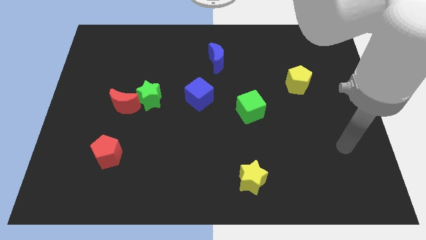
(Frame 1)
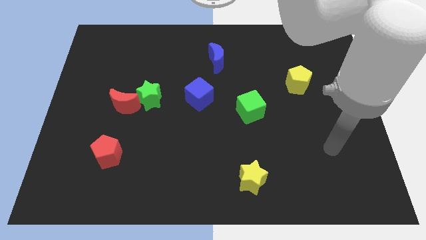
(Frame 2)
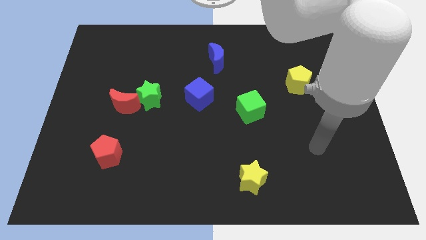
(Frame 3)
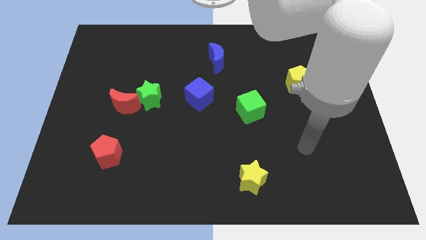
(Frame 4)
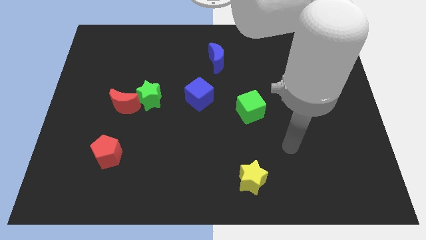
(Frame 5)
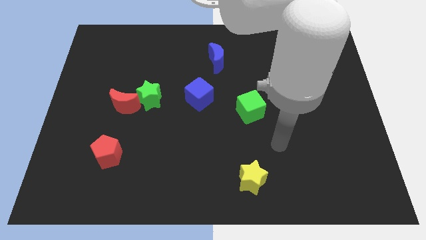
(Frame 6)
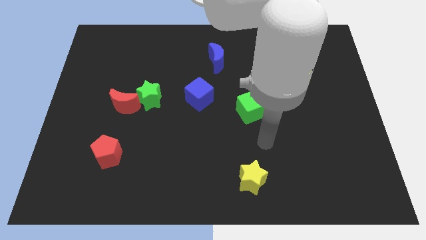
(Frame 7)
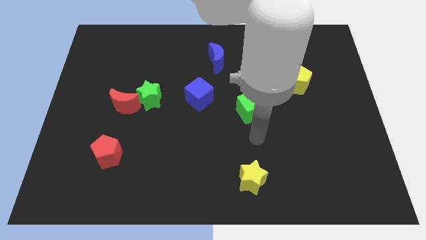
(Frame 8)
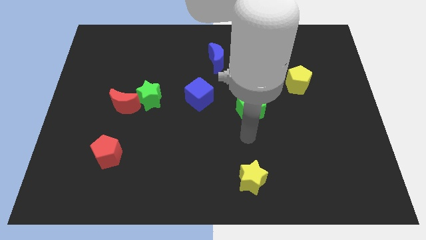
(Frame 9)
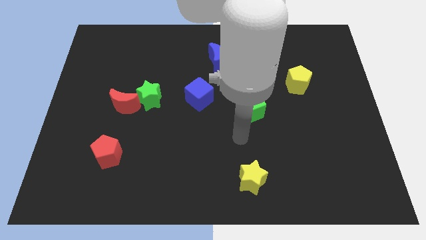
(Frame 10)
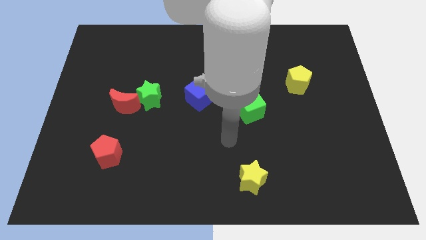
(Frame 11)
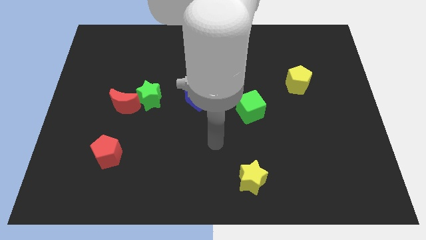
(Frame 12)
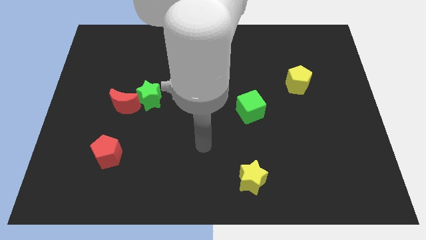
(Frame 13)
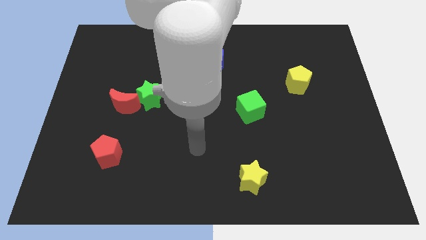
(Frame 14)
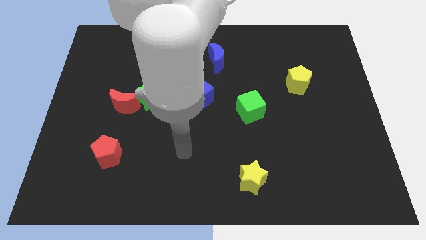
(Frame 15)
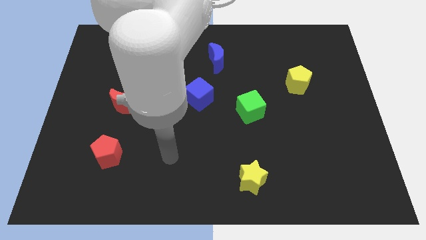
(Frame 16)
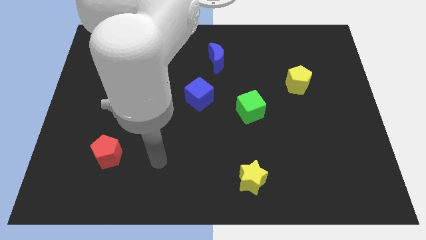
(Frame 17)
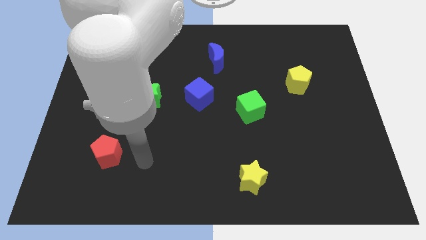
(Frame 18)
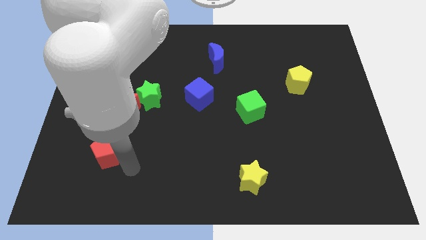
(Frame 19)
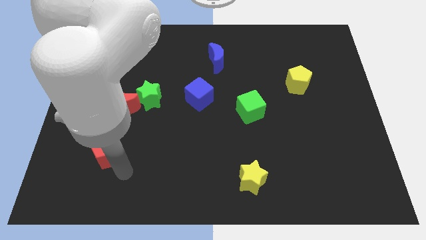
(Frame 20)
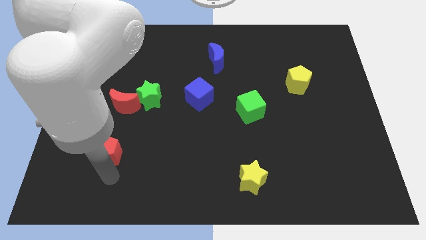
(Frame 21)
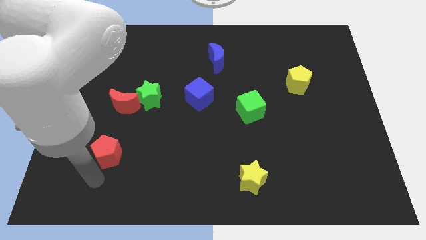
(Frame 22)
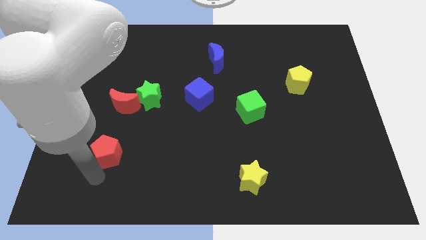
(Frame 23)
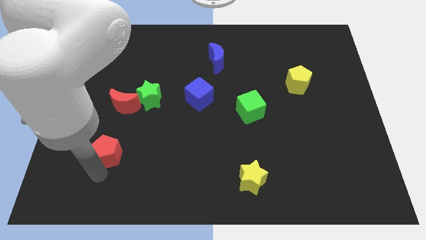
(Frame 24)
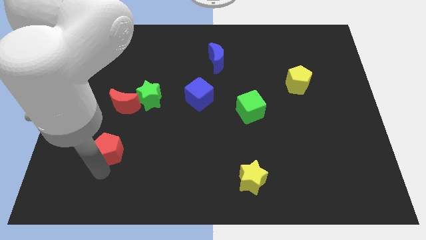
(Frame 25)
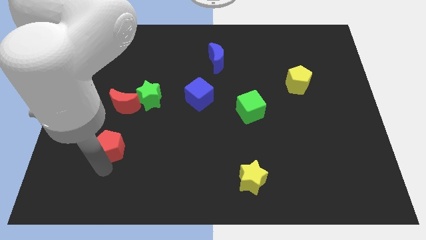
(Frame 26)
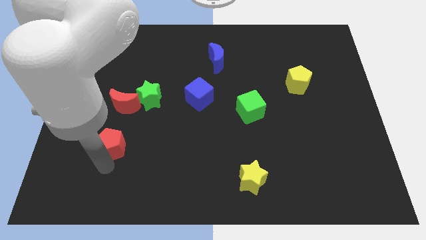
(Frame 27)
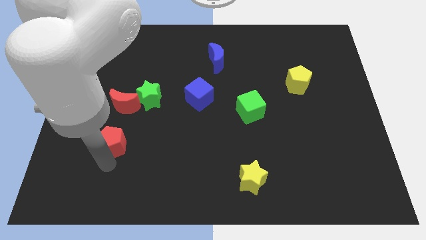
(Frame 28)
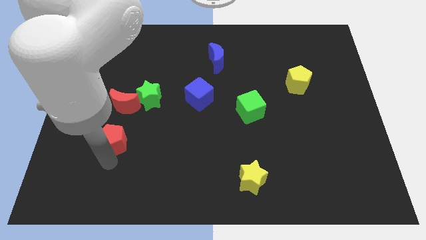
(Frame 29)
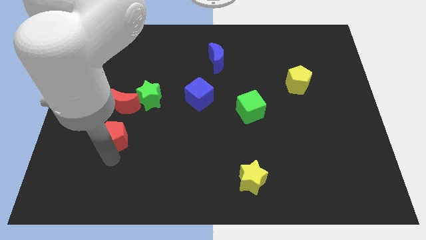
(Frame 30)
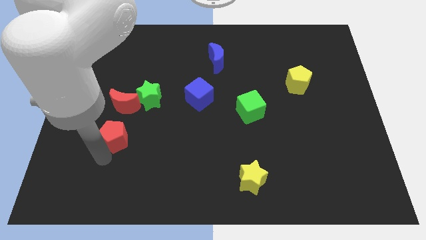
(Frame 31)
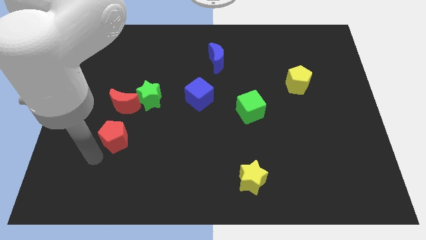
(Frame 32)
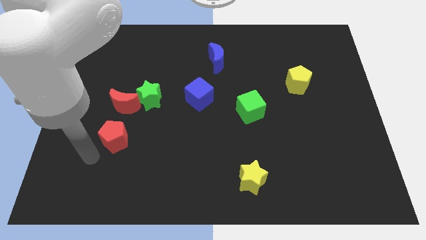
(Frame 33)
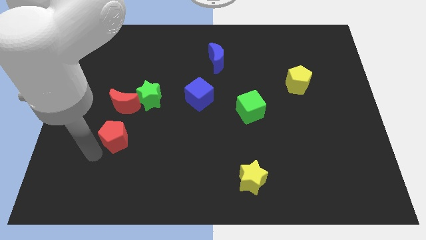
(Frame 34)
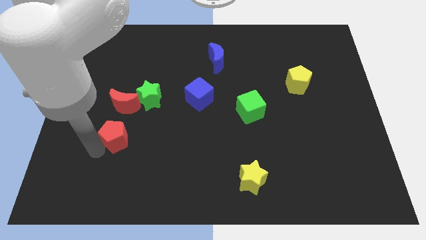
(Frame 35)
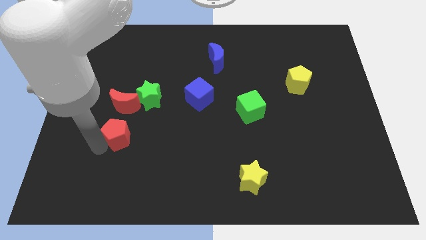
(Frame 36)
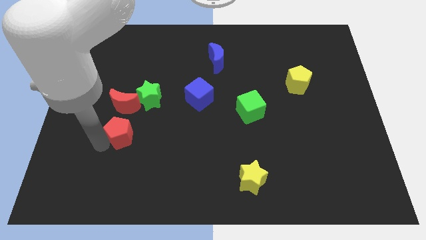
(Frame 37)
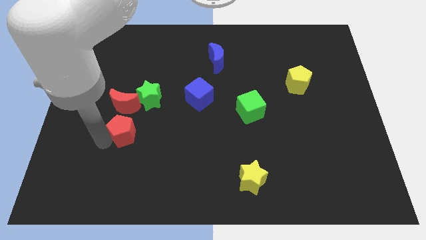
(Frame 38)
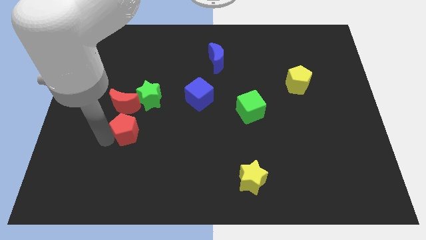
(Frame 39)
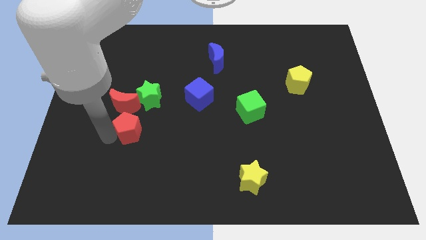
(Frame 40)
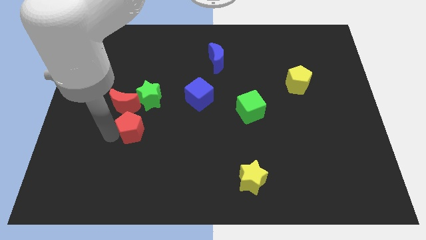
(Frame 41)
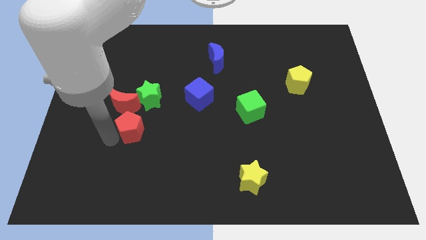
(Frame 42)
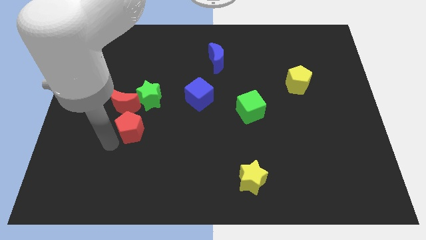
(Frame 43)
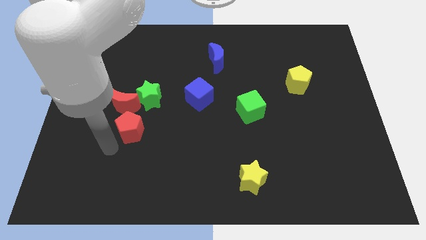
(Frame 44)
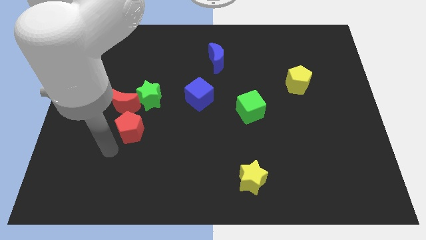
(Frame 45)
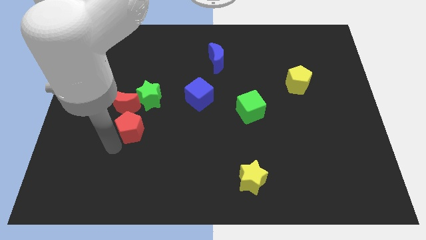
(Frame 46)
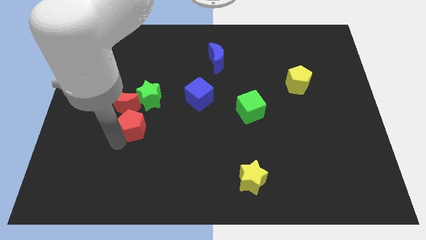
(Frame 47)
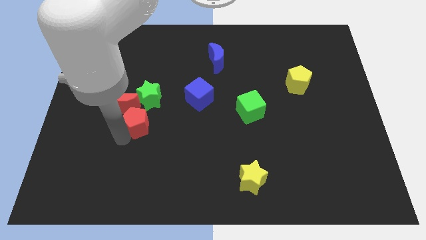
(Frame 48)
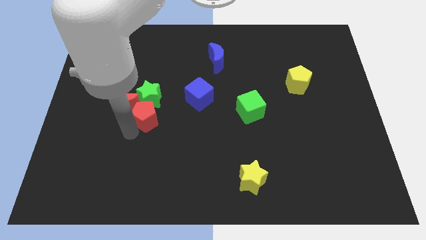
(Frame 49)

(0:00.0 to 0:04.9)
put the red pentagon to the green star

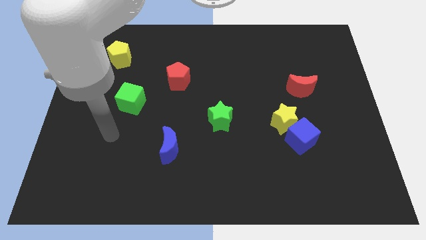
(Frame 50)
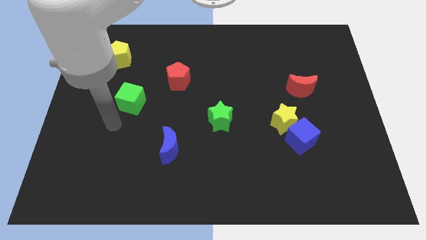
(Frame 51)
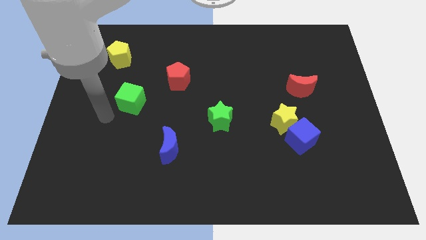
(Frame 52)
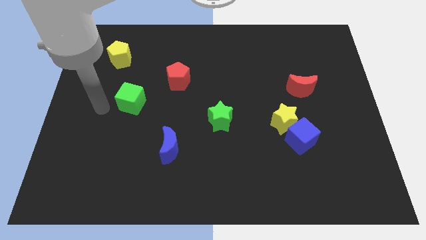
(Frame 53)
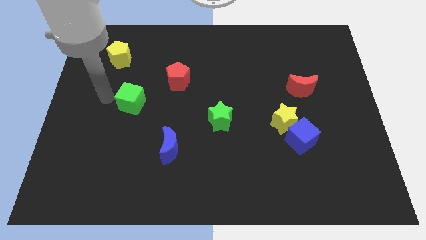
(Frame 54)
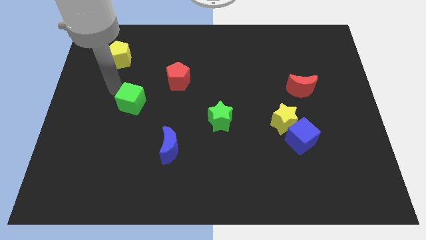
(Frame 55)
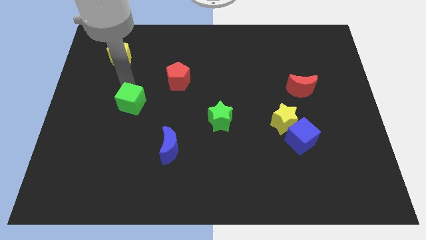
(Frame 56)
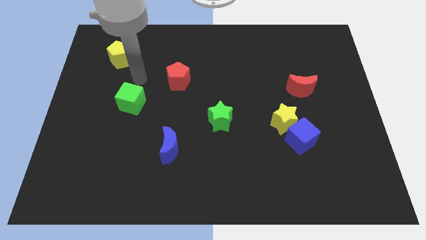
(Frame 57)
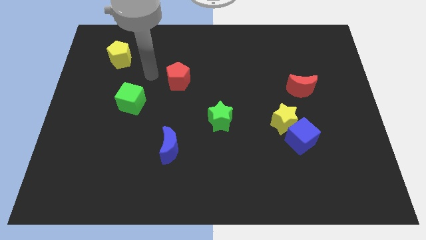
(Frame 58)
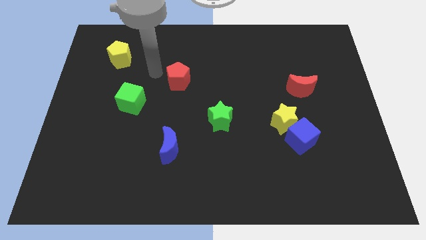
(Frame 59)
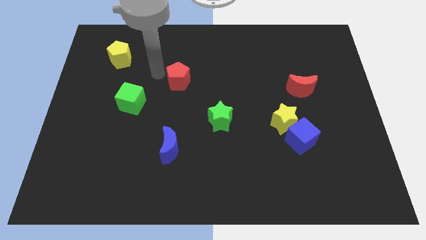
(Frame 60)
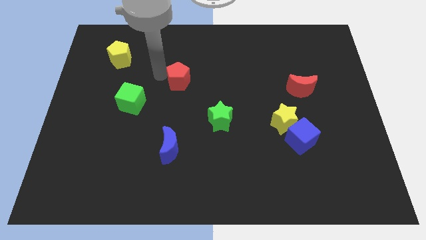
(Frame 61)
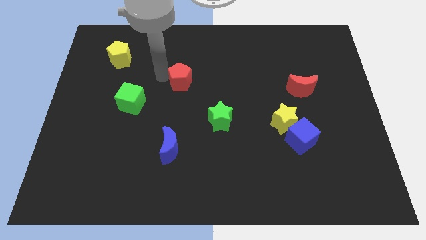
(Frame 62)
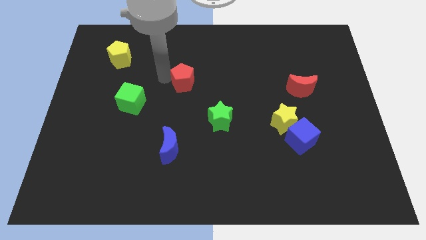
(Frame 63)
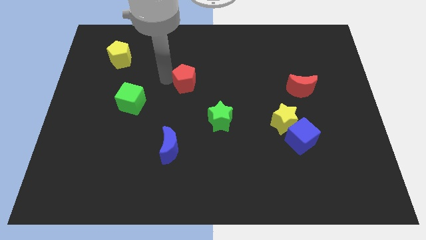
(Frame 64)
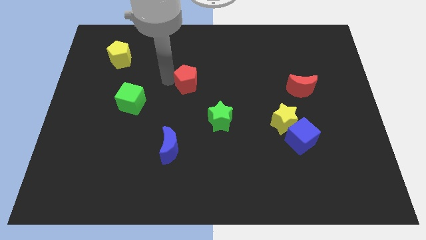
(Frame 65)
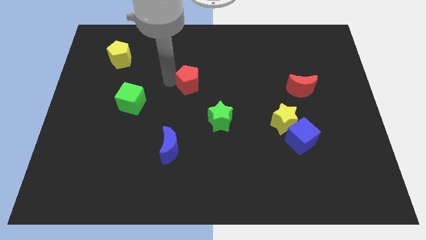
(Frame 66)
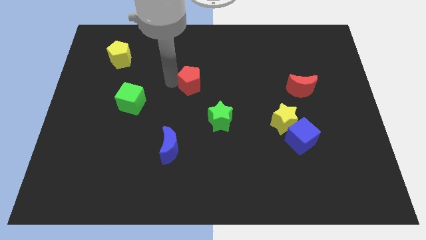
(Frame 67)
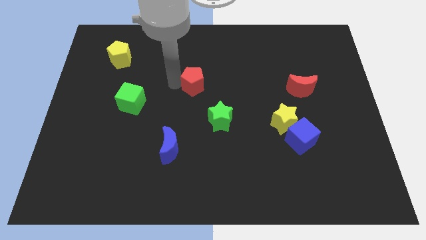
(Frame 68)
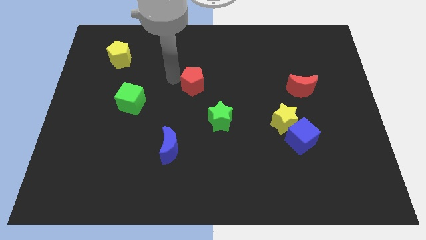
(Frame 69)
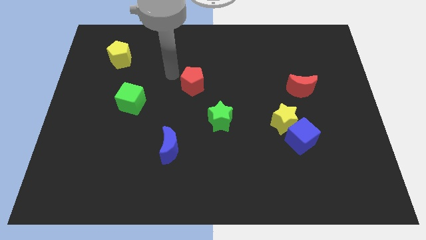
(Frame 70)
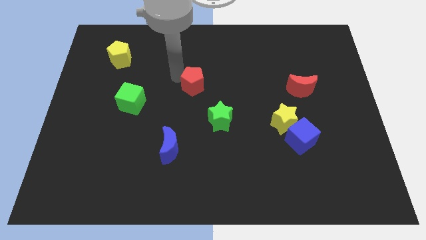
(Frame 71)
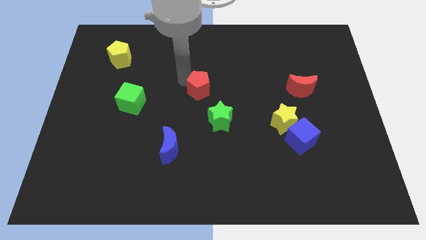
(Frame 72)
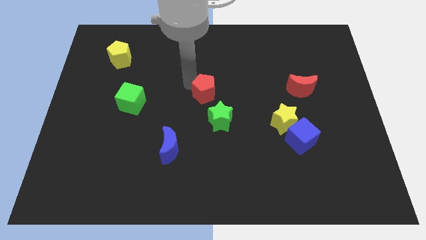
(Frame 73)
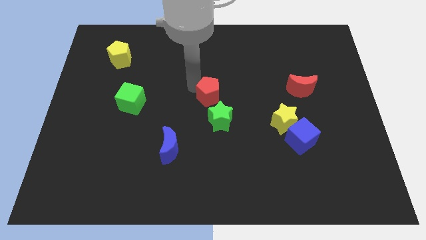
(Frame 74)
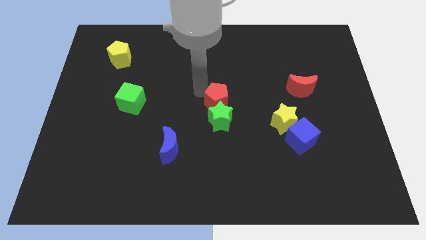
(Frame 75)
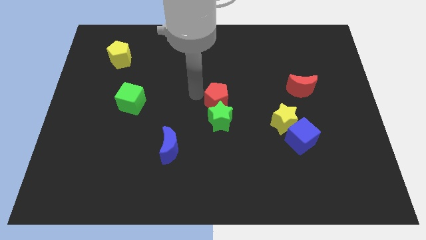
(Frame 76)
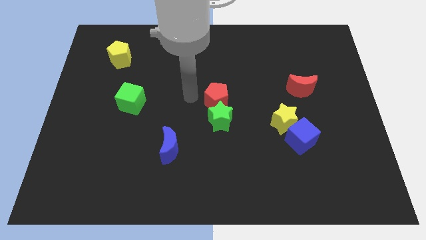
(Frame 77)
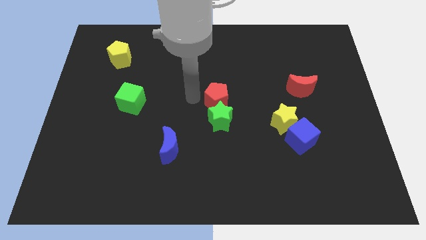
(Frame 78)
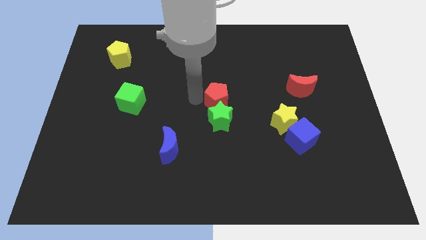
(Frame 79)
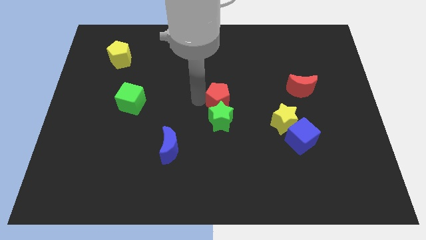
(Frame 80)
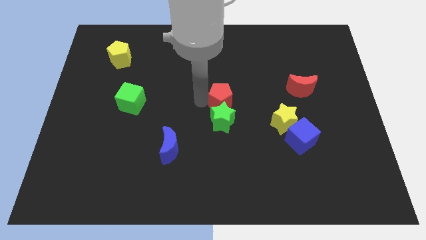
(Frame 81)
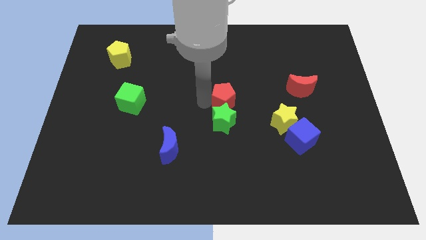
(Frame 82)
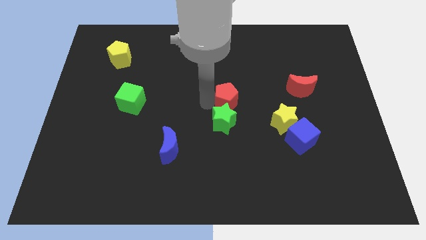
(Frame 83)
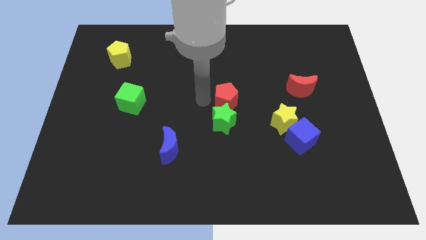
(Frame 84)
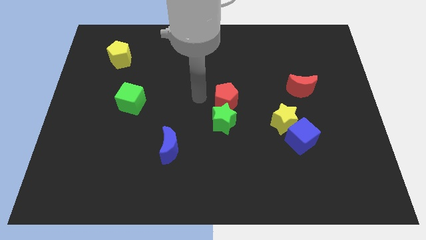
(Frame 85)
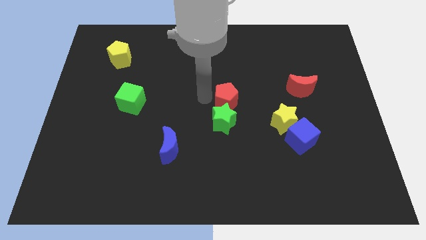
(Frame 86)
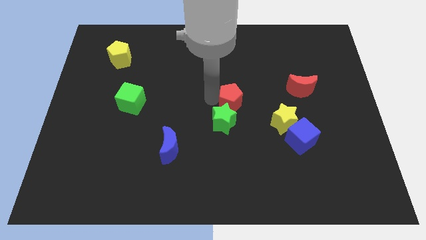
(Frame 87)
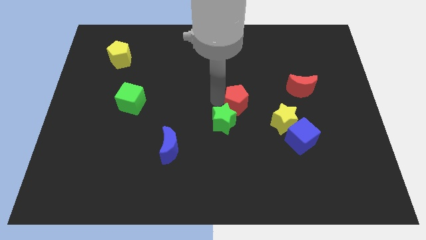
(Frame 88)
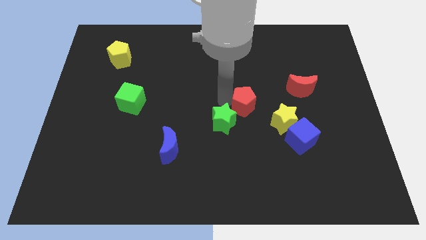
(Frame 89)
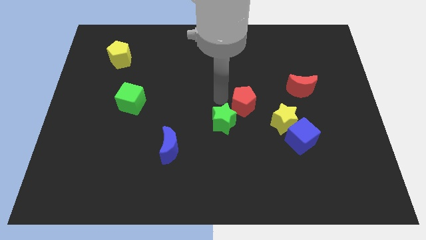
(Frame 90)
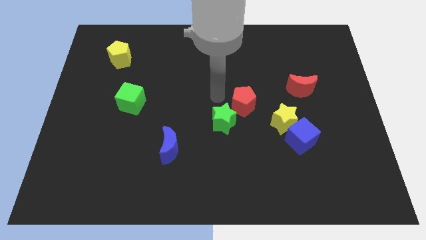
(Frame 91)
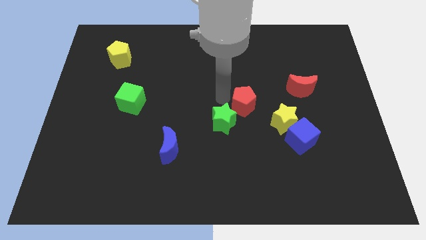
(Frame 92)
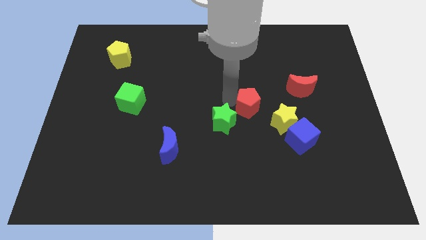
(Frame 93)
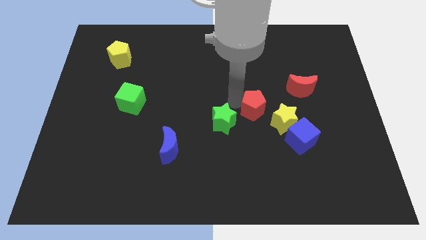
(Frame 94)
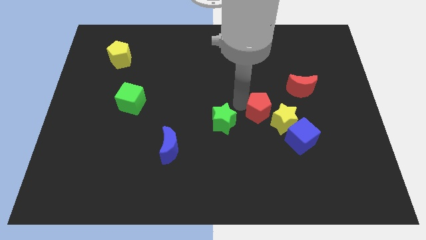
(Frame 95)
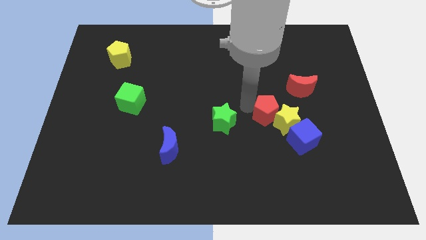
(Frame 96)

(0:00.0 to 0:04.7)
slide the red pentagon next to the yellow star
